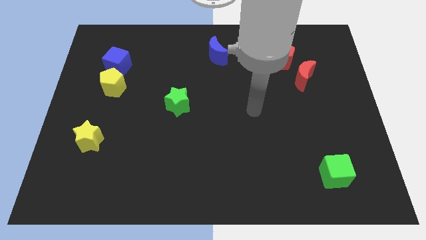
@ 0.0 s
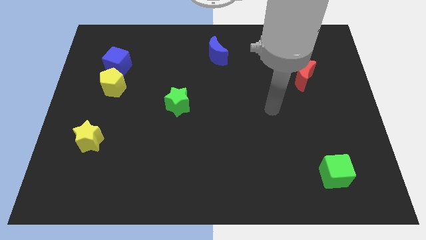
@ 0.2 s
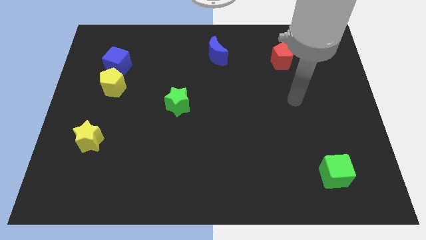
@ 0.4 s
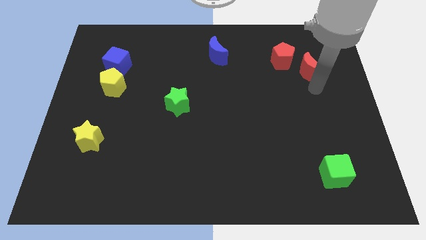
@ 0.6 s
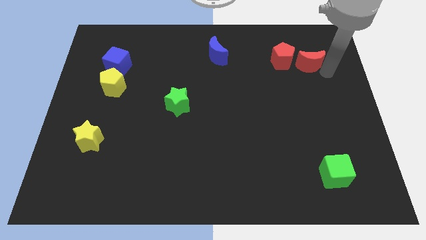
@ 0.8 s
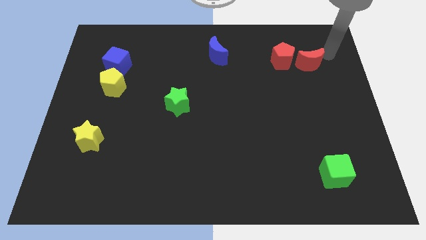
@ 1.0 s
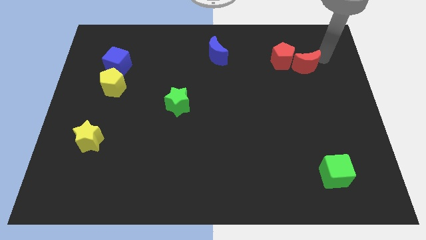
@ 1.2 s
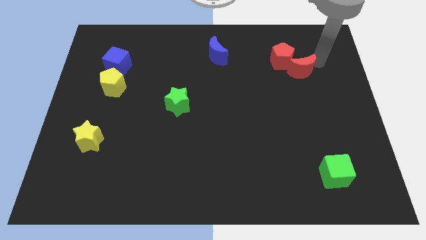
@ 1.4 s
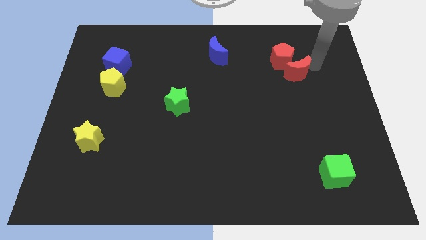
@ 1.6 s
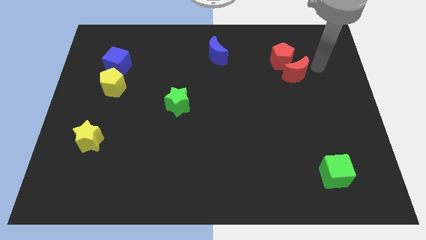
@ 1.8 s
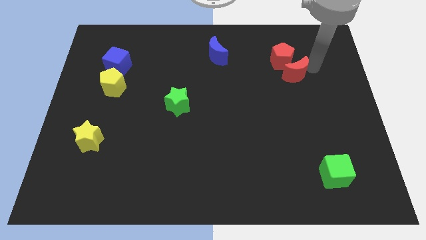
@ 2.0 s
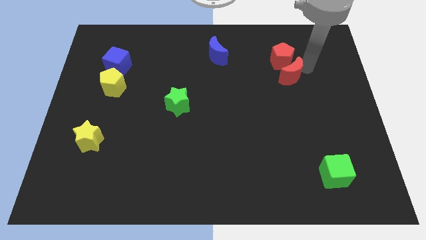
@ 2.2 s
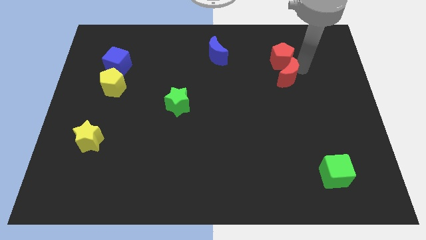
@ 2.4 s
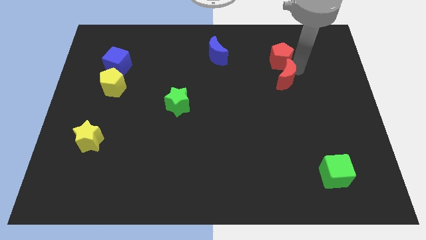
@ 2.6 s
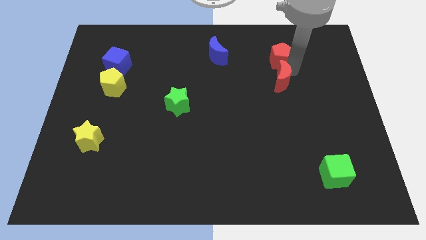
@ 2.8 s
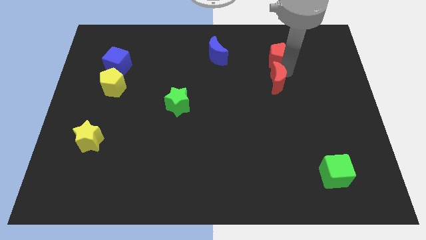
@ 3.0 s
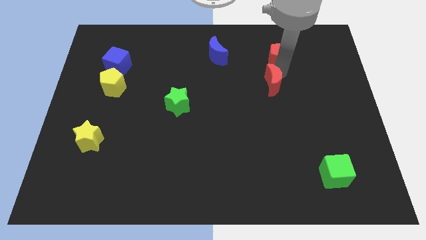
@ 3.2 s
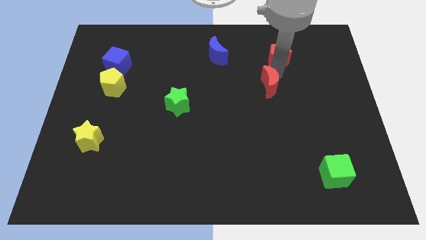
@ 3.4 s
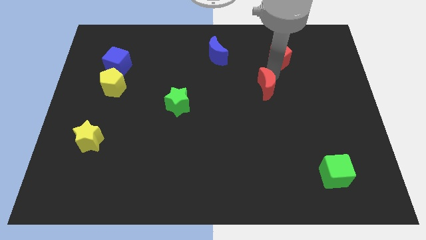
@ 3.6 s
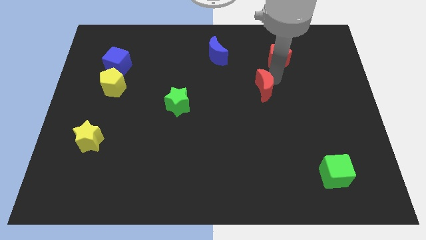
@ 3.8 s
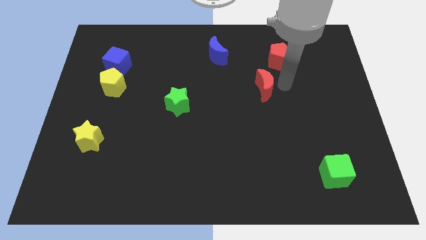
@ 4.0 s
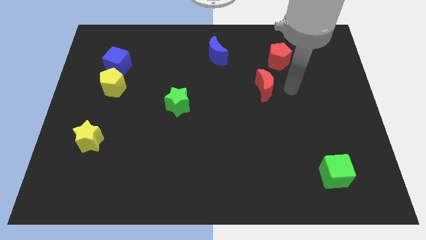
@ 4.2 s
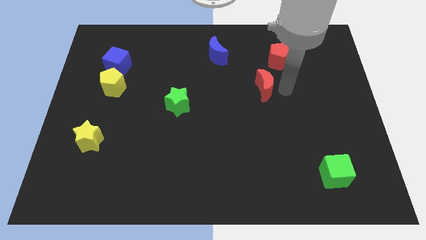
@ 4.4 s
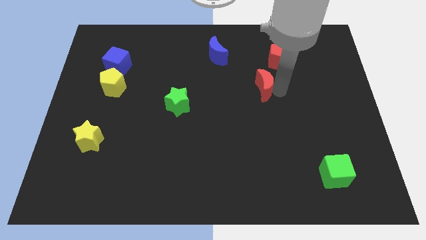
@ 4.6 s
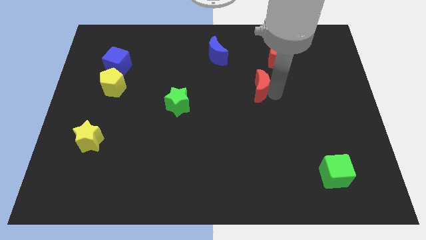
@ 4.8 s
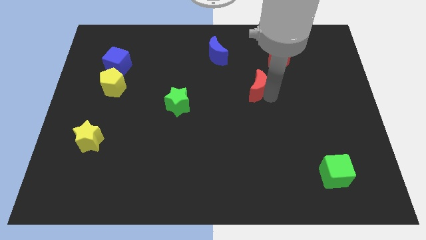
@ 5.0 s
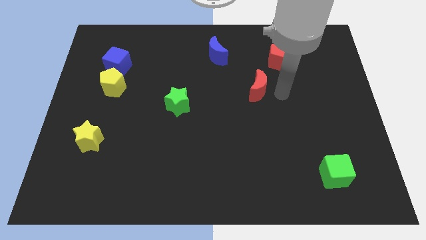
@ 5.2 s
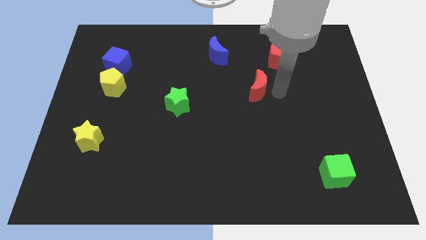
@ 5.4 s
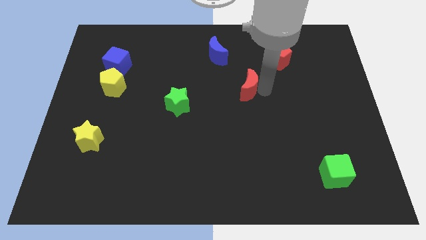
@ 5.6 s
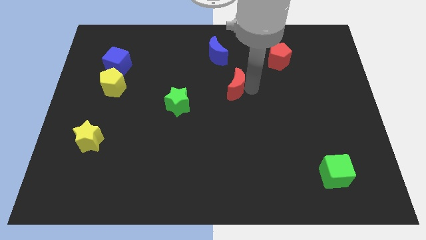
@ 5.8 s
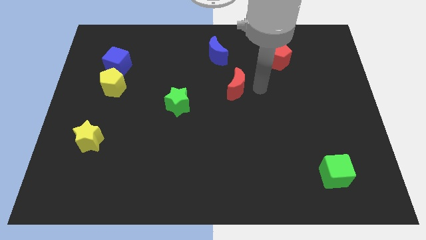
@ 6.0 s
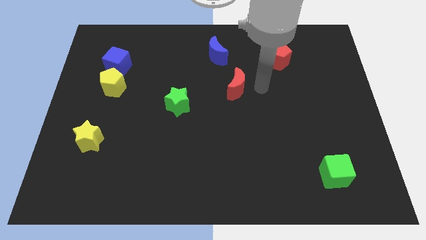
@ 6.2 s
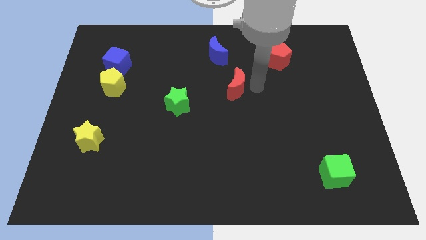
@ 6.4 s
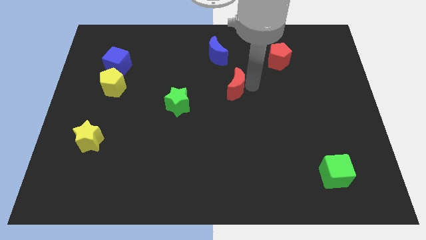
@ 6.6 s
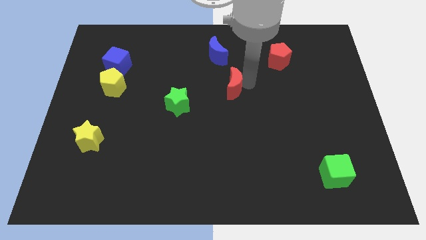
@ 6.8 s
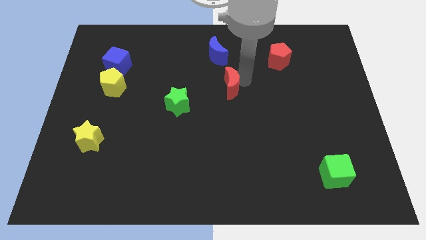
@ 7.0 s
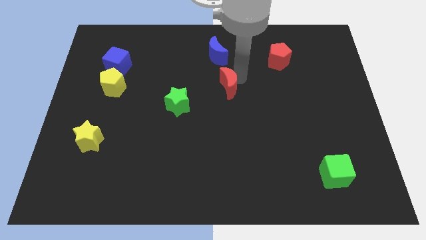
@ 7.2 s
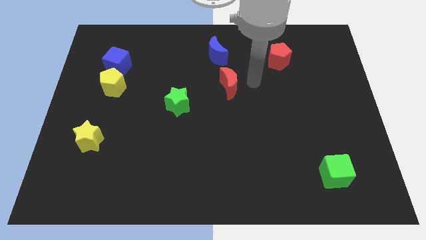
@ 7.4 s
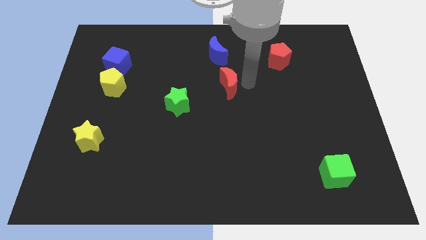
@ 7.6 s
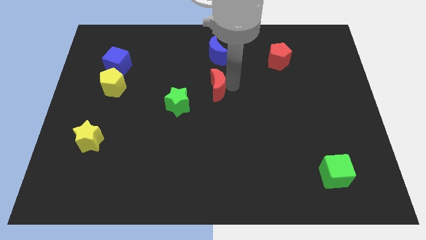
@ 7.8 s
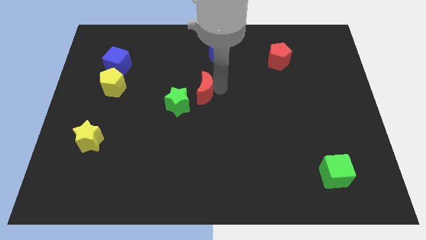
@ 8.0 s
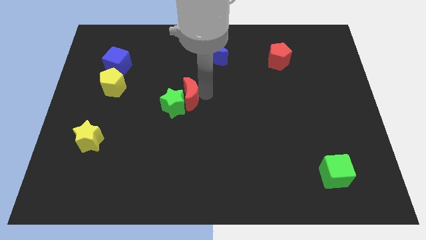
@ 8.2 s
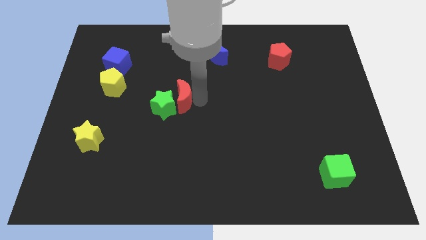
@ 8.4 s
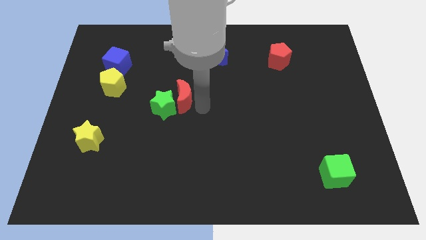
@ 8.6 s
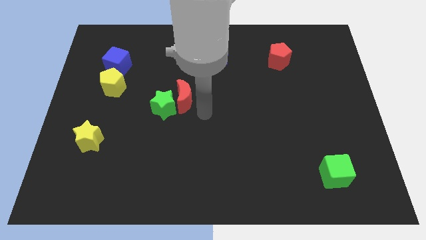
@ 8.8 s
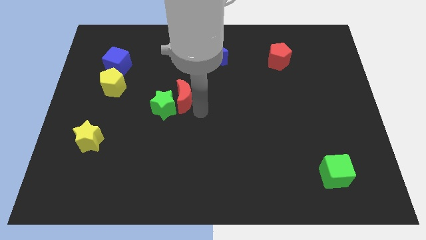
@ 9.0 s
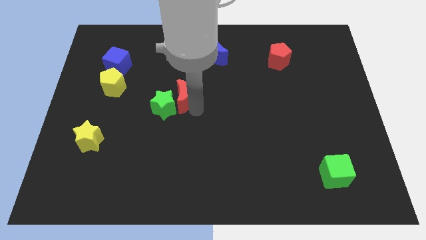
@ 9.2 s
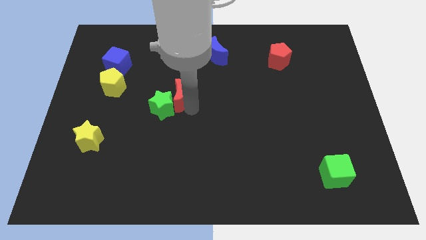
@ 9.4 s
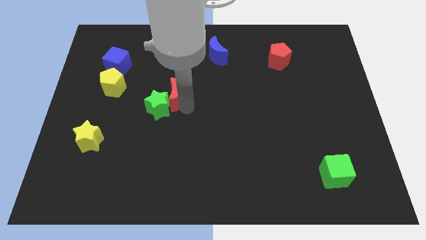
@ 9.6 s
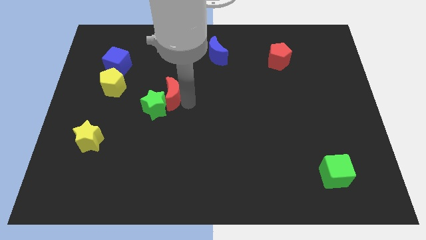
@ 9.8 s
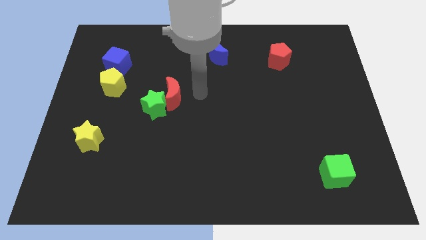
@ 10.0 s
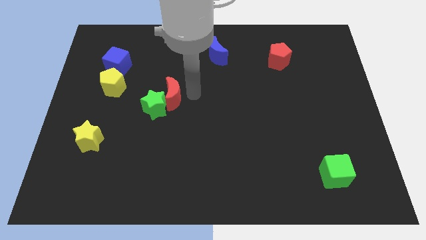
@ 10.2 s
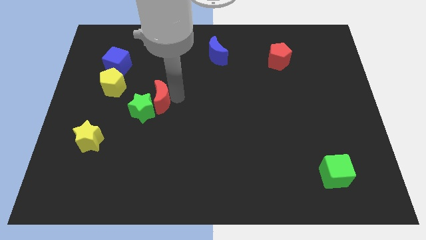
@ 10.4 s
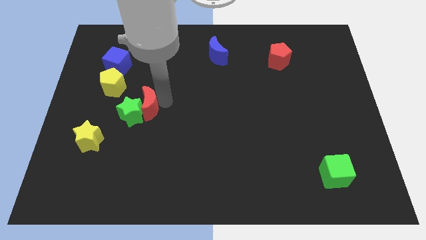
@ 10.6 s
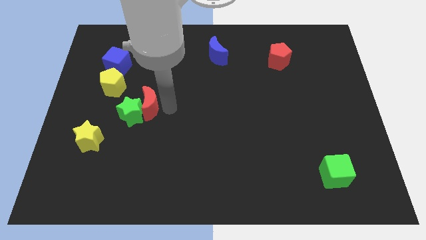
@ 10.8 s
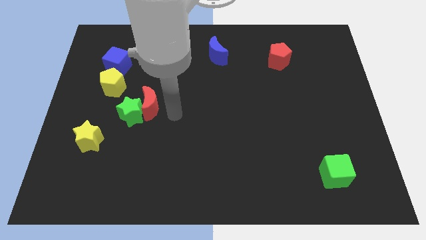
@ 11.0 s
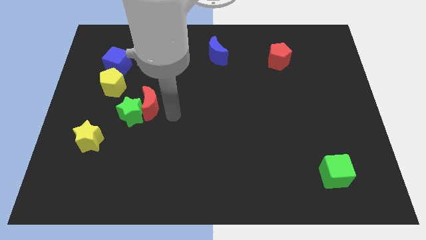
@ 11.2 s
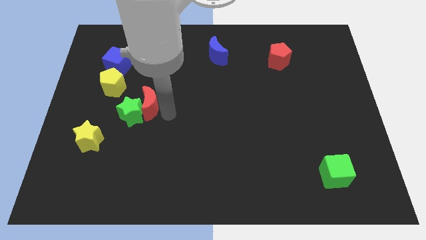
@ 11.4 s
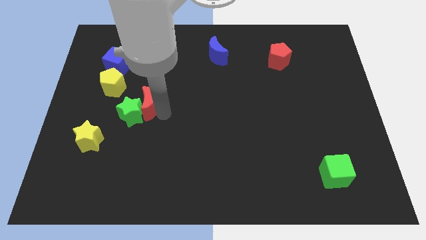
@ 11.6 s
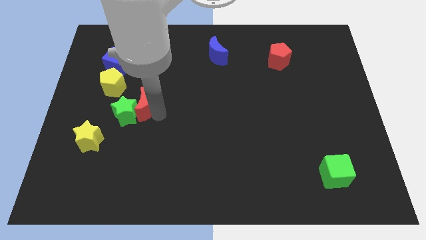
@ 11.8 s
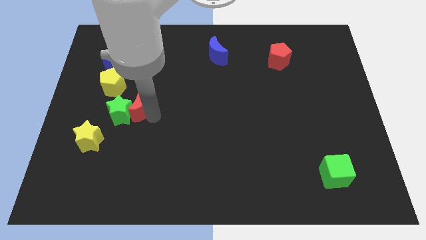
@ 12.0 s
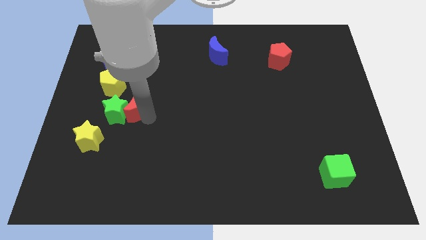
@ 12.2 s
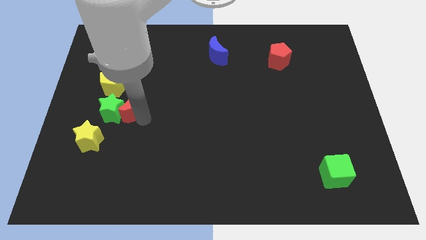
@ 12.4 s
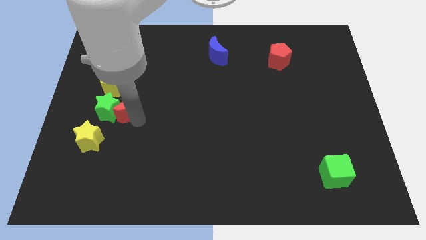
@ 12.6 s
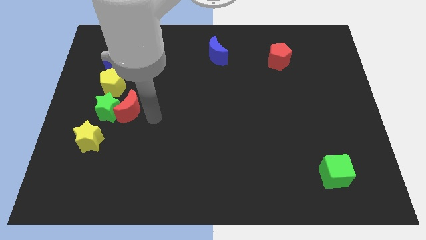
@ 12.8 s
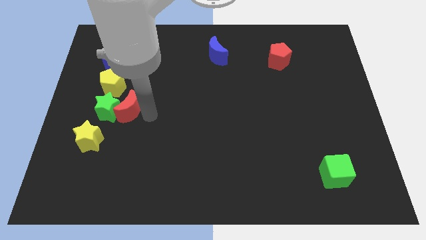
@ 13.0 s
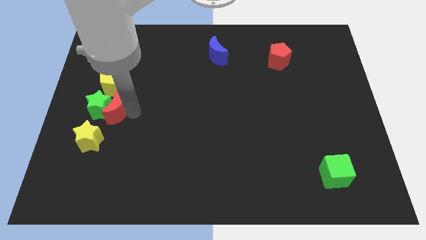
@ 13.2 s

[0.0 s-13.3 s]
push the red moon to the top side of the yellow star
